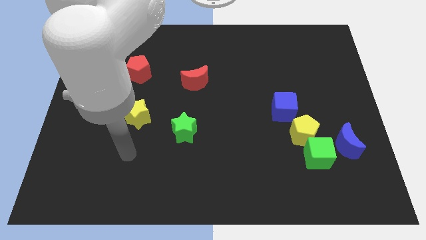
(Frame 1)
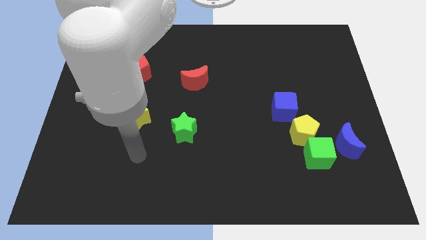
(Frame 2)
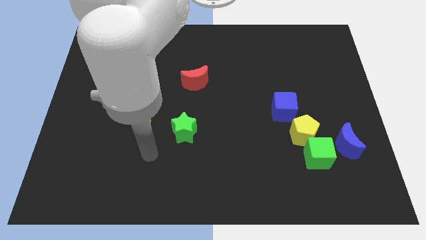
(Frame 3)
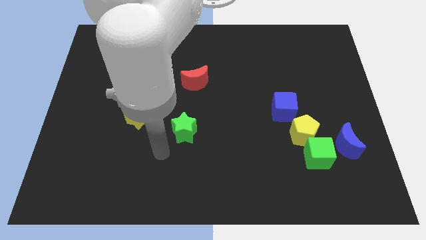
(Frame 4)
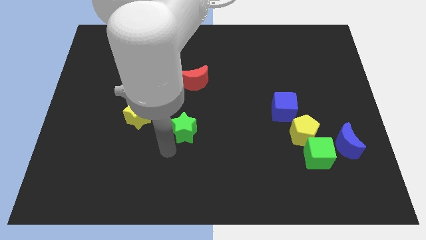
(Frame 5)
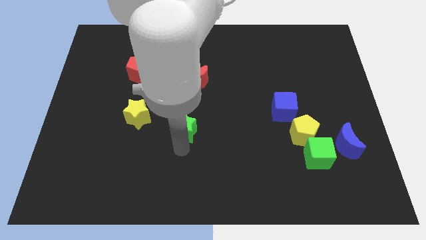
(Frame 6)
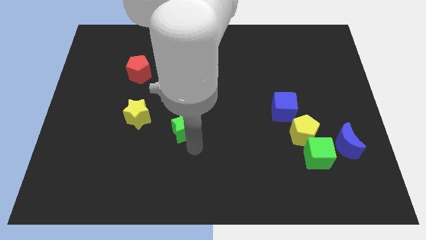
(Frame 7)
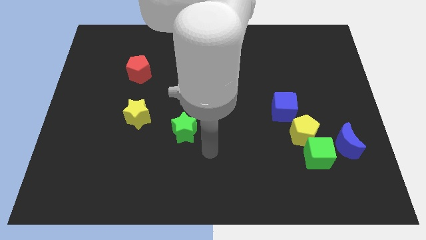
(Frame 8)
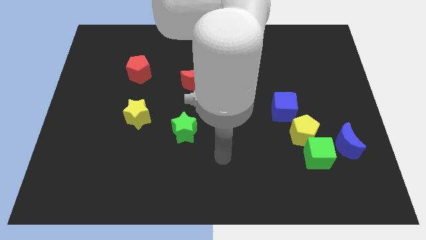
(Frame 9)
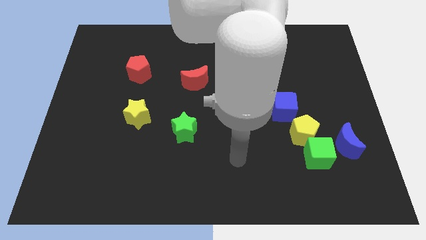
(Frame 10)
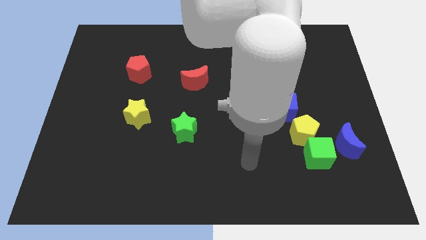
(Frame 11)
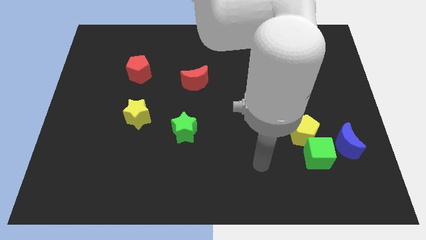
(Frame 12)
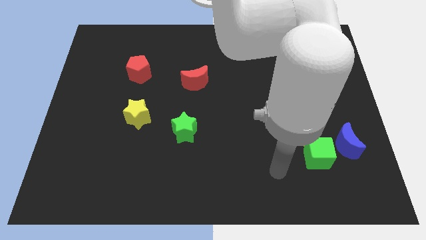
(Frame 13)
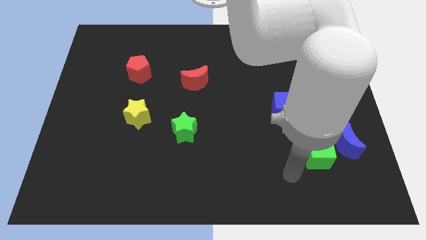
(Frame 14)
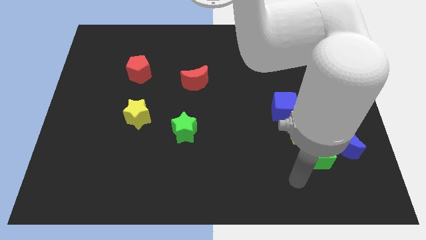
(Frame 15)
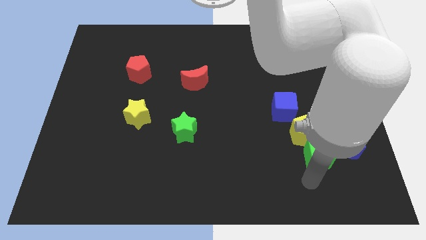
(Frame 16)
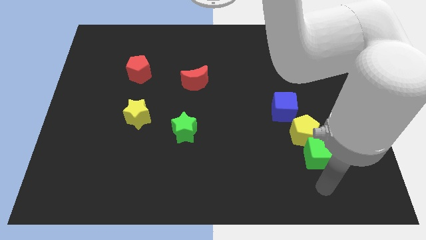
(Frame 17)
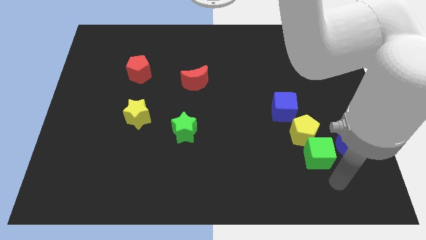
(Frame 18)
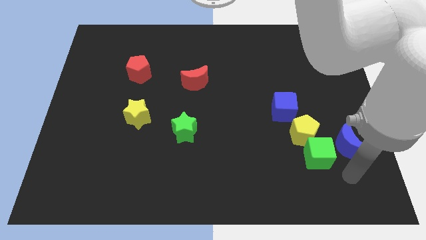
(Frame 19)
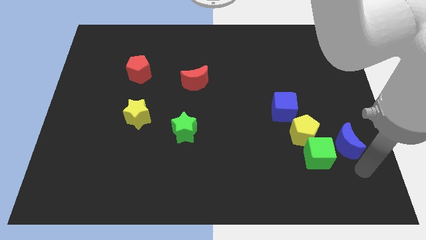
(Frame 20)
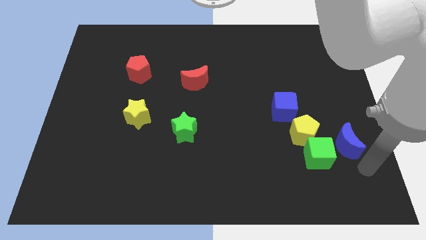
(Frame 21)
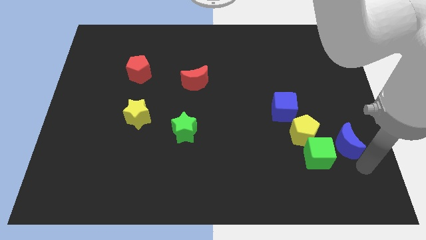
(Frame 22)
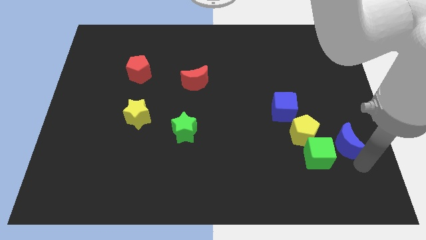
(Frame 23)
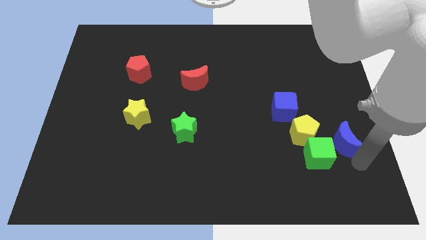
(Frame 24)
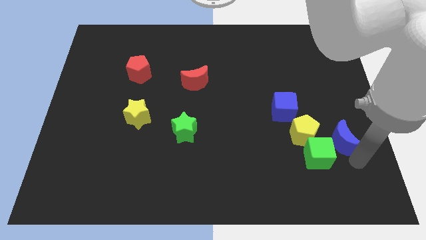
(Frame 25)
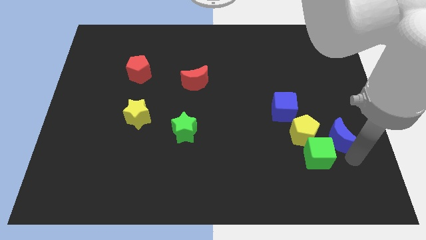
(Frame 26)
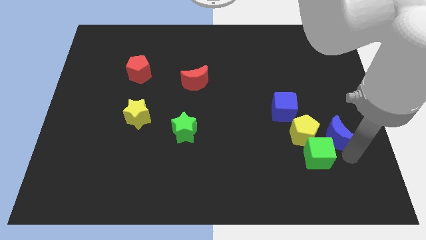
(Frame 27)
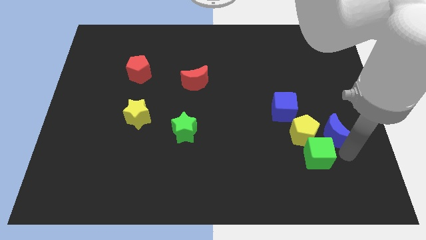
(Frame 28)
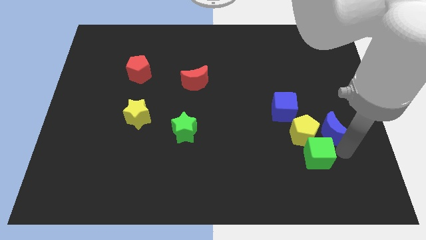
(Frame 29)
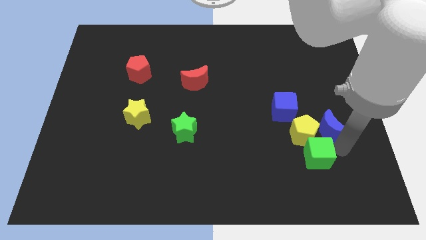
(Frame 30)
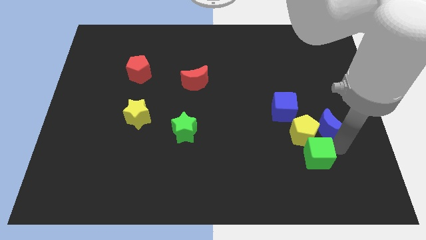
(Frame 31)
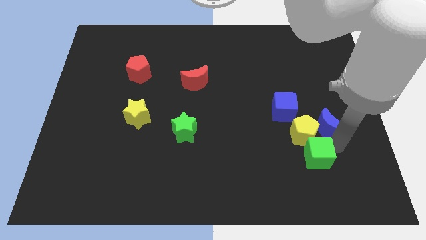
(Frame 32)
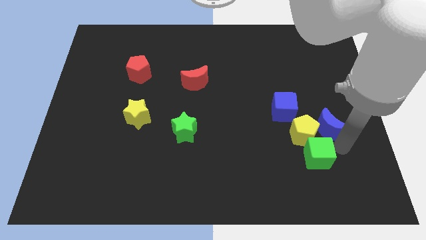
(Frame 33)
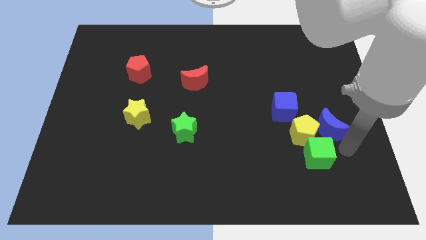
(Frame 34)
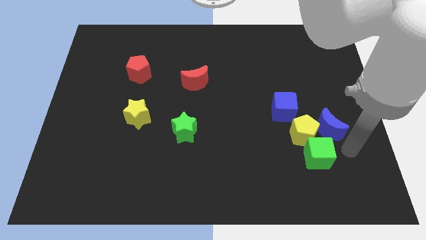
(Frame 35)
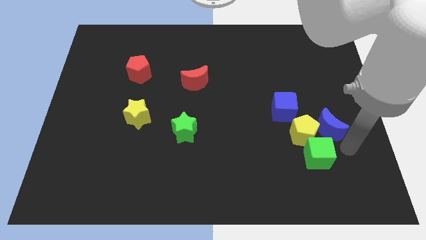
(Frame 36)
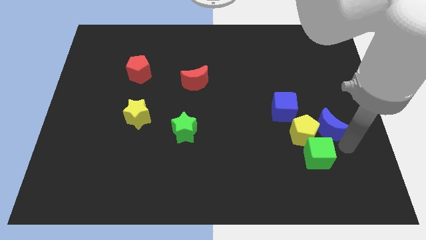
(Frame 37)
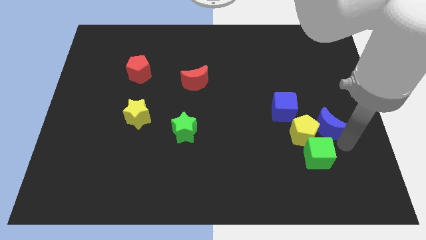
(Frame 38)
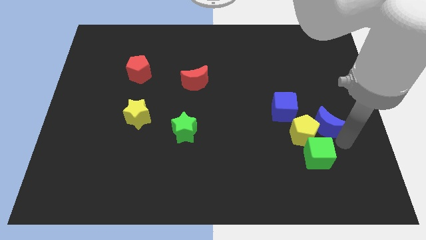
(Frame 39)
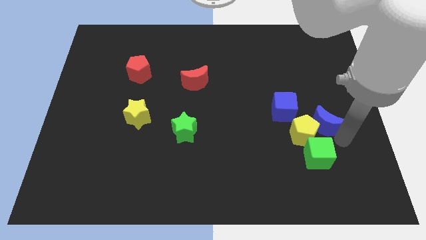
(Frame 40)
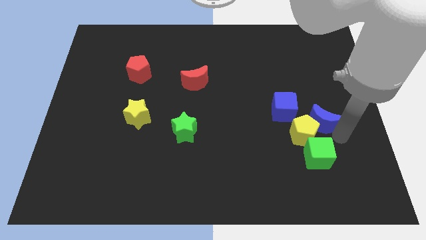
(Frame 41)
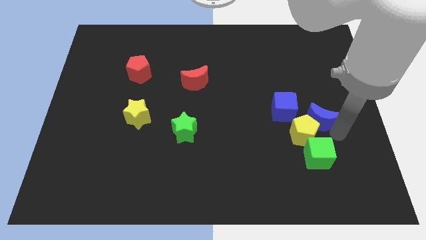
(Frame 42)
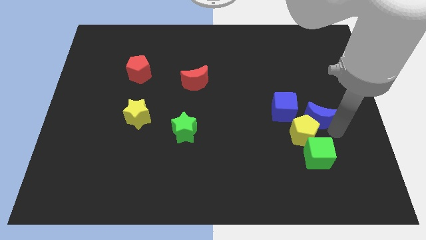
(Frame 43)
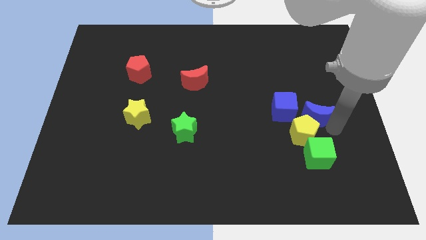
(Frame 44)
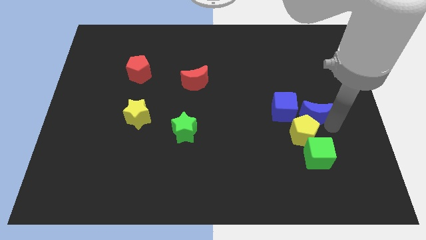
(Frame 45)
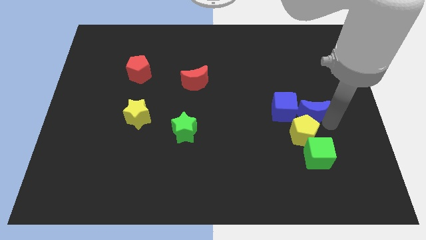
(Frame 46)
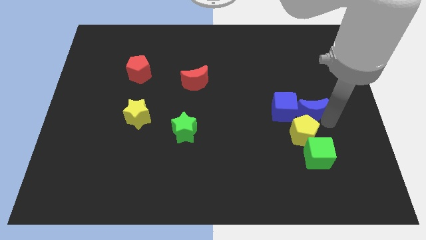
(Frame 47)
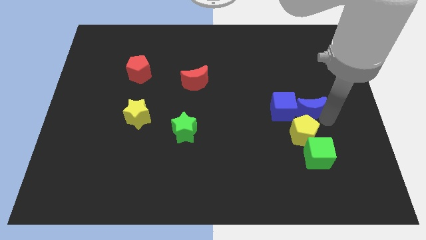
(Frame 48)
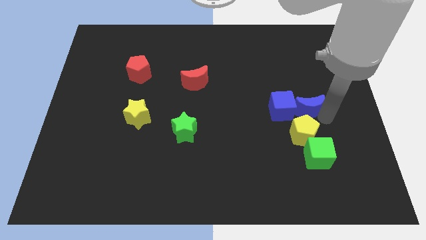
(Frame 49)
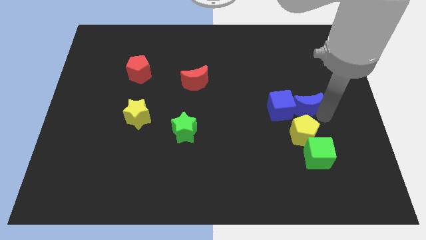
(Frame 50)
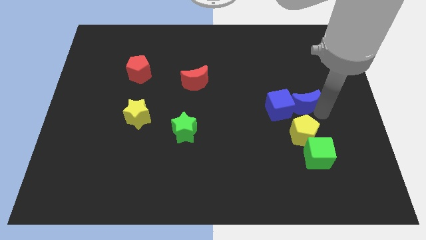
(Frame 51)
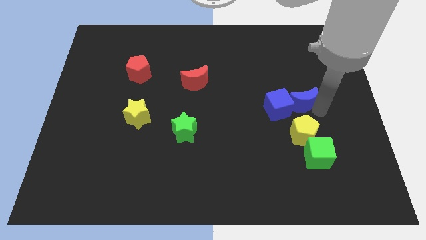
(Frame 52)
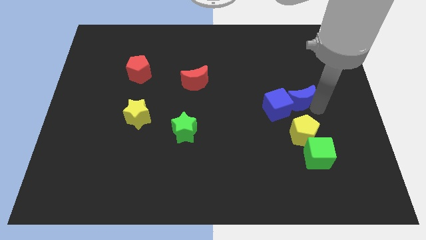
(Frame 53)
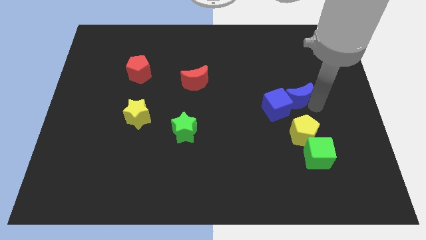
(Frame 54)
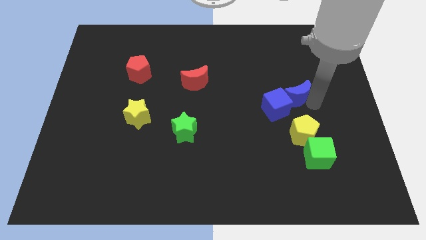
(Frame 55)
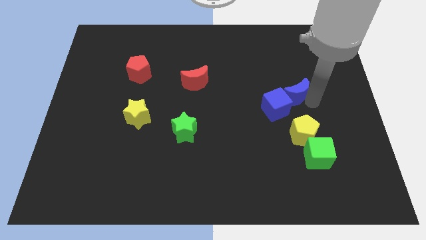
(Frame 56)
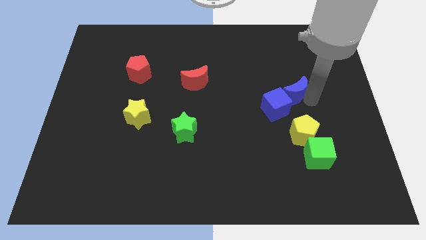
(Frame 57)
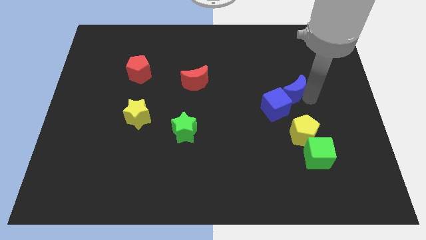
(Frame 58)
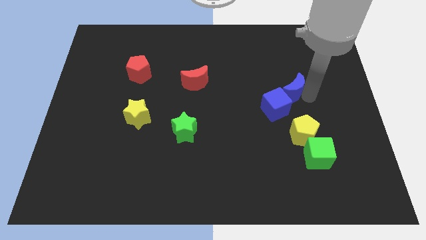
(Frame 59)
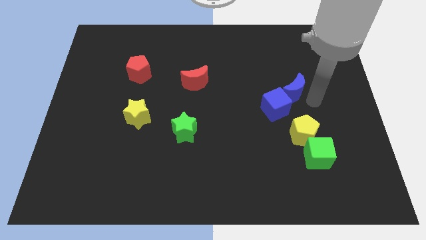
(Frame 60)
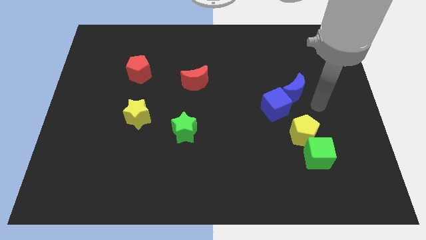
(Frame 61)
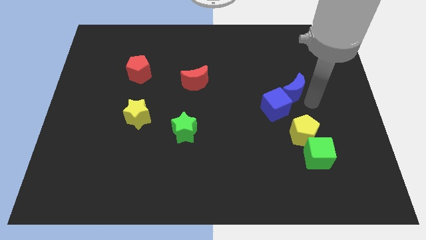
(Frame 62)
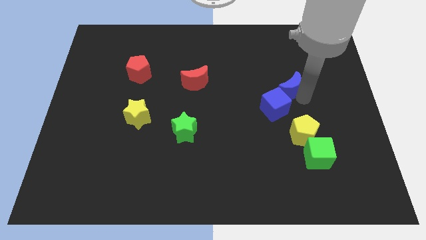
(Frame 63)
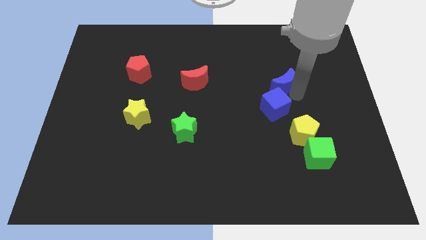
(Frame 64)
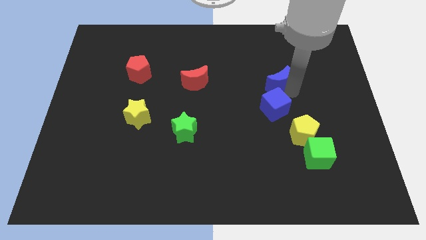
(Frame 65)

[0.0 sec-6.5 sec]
push the blue moon up and left diagonally

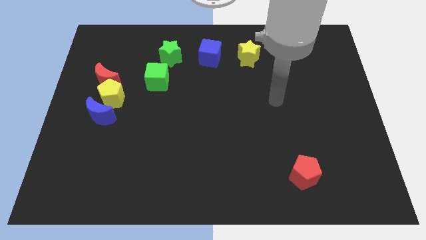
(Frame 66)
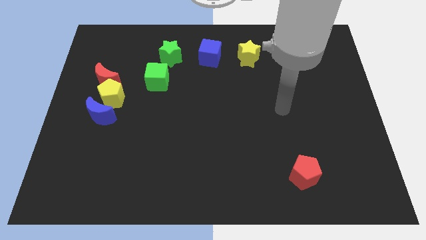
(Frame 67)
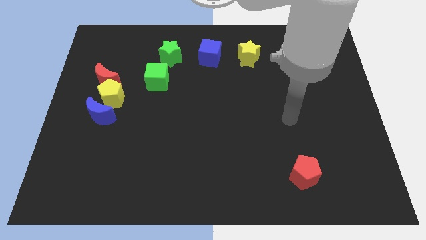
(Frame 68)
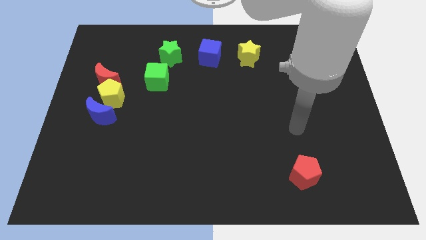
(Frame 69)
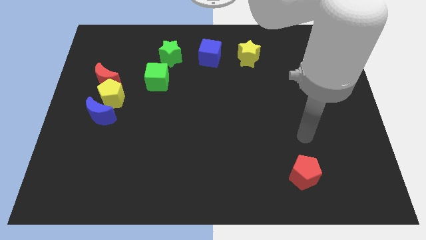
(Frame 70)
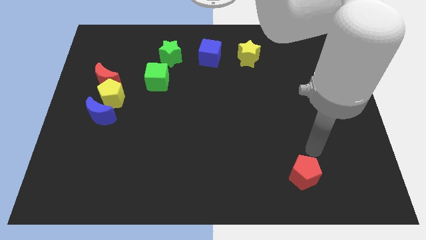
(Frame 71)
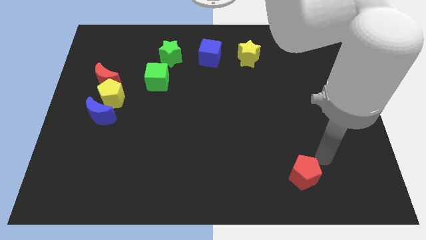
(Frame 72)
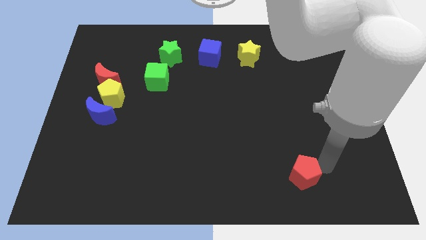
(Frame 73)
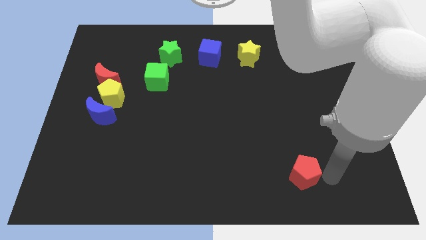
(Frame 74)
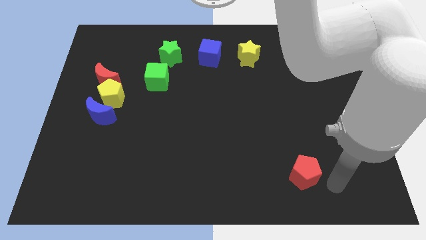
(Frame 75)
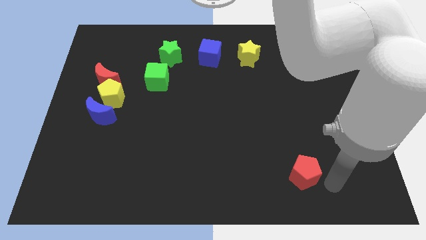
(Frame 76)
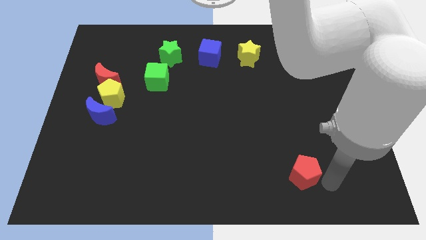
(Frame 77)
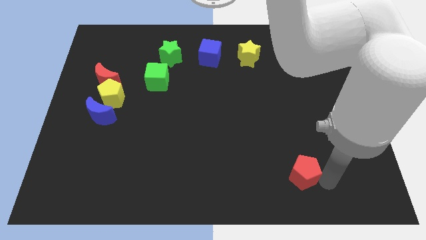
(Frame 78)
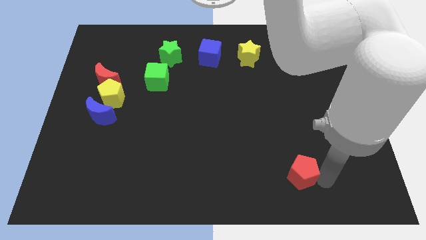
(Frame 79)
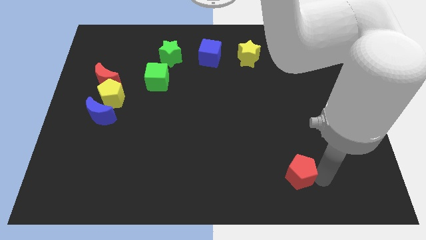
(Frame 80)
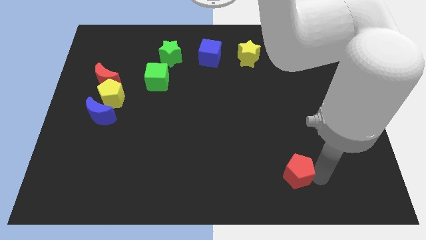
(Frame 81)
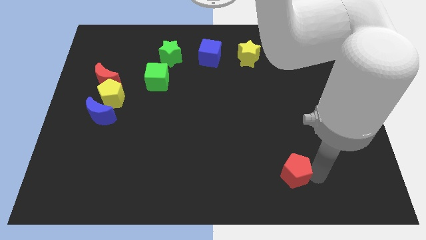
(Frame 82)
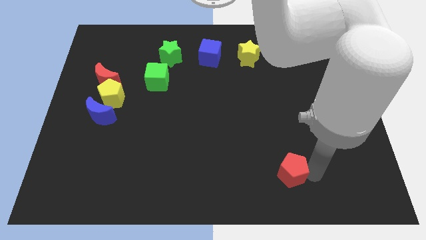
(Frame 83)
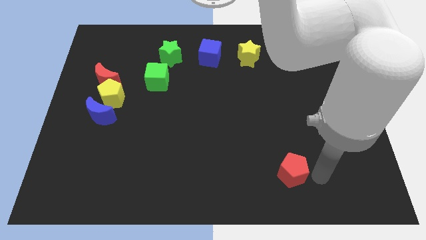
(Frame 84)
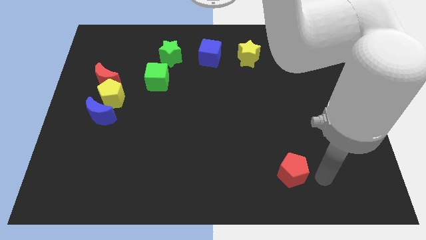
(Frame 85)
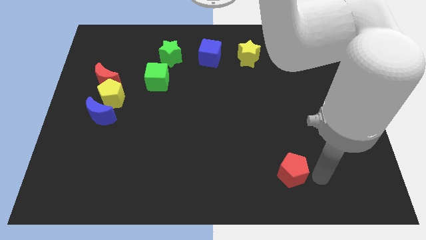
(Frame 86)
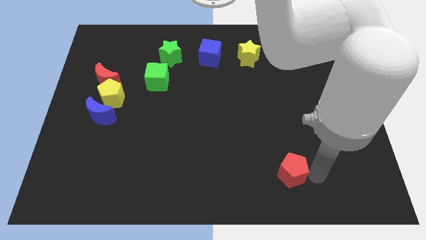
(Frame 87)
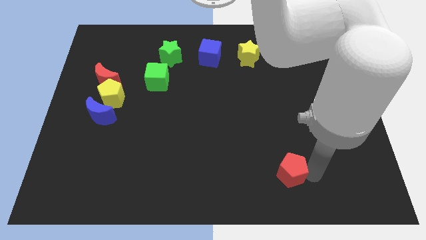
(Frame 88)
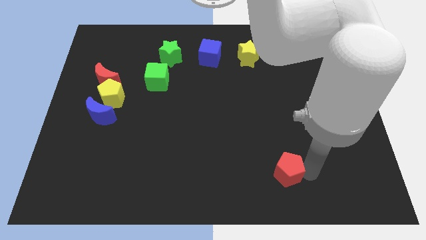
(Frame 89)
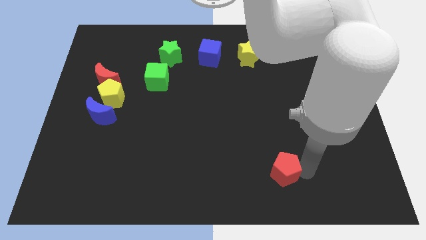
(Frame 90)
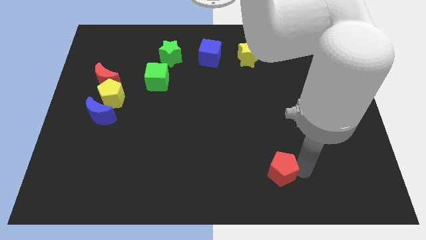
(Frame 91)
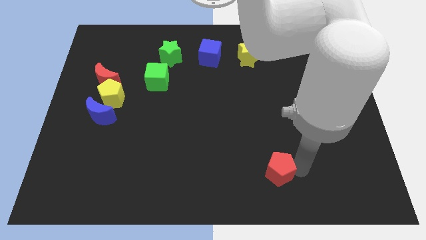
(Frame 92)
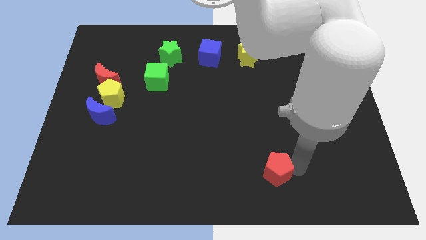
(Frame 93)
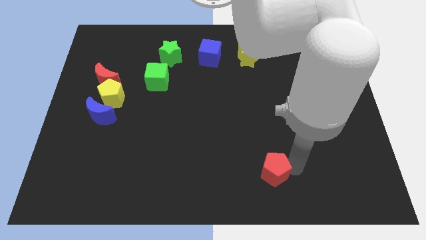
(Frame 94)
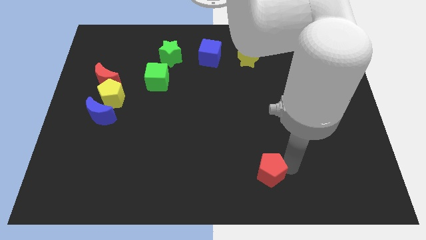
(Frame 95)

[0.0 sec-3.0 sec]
slide the red pentagon left slightly
